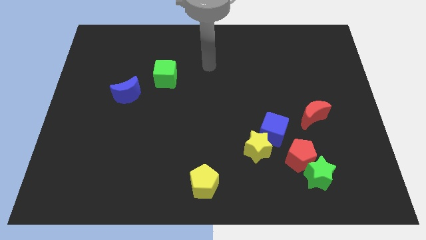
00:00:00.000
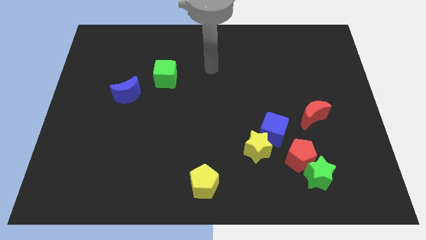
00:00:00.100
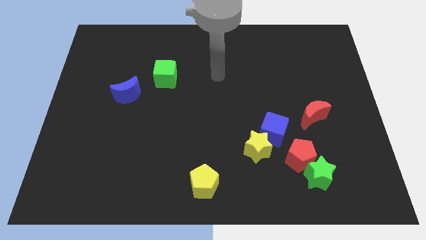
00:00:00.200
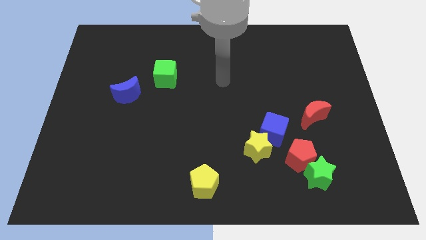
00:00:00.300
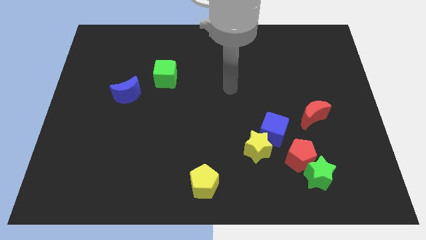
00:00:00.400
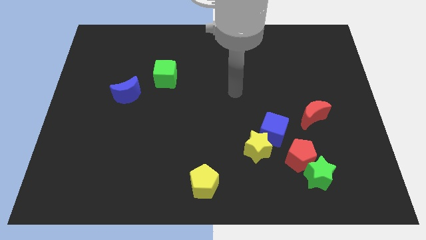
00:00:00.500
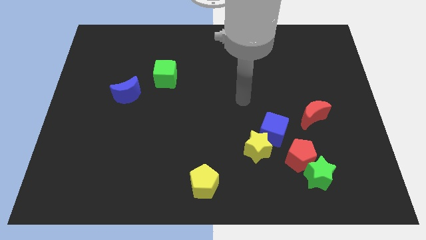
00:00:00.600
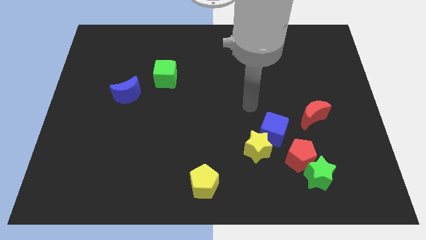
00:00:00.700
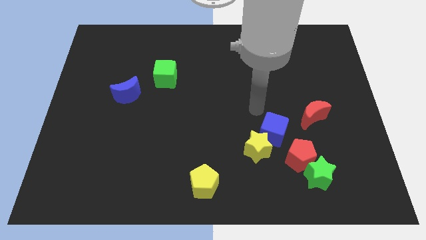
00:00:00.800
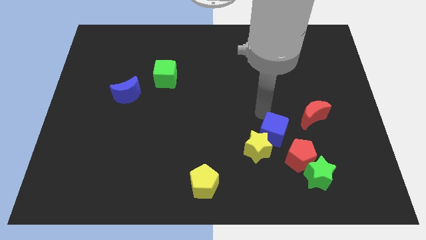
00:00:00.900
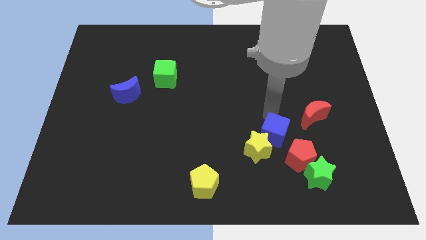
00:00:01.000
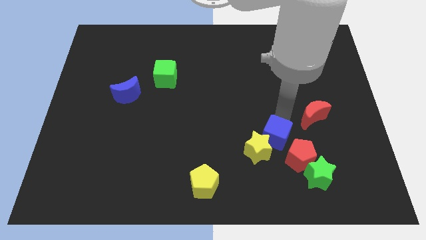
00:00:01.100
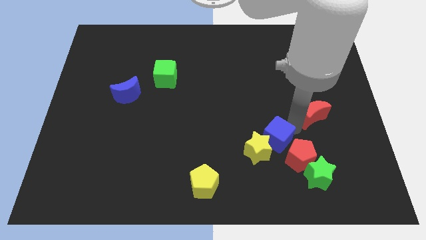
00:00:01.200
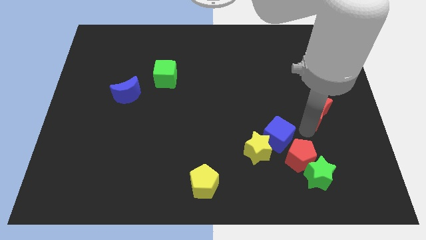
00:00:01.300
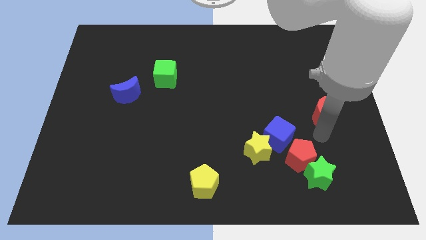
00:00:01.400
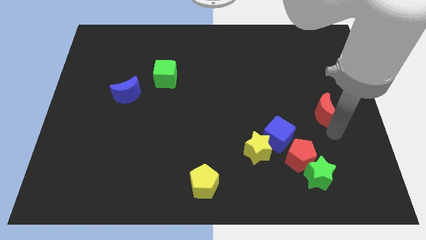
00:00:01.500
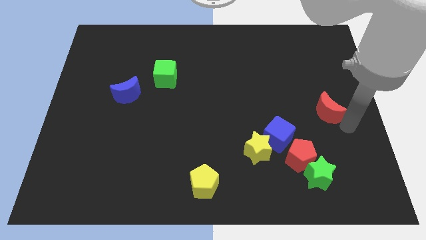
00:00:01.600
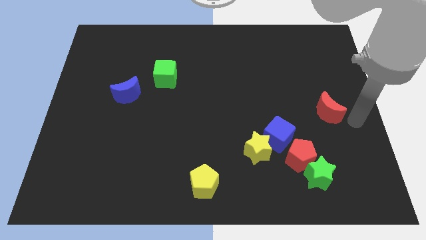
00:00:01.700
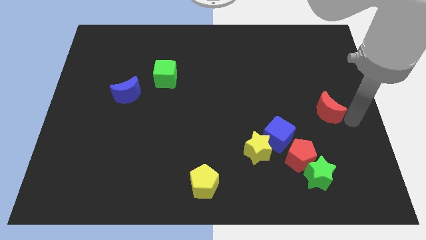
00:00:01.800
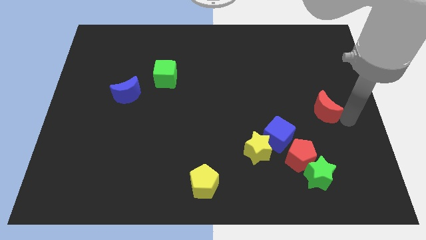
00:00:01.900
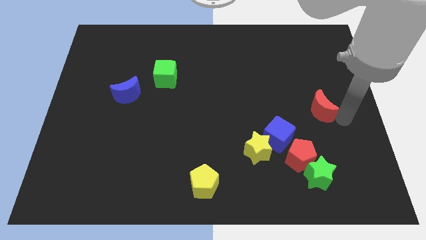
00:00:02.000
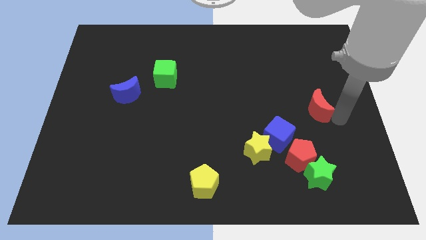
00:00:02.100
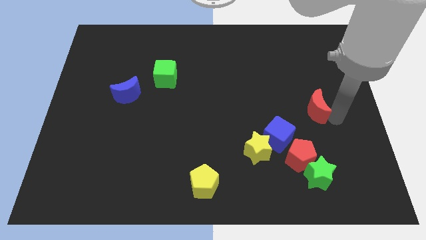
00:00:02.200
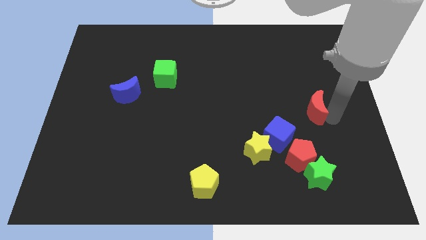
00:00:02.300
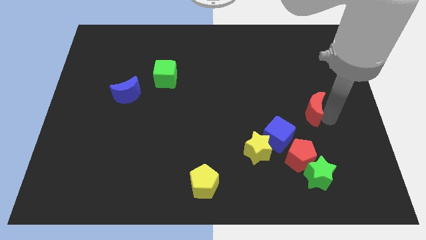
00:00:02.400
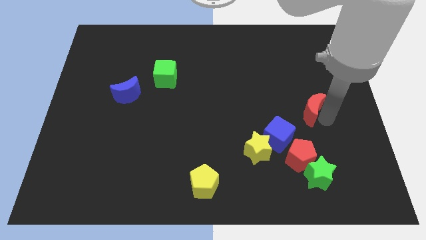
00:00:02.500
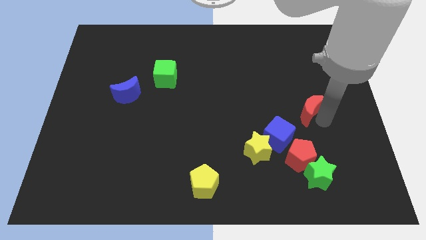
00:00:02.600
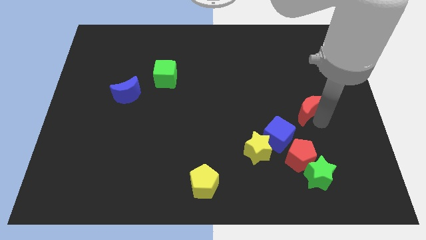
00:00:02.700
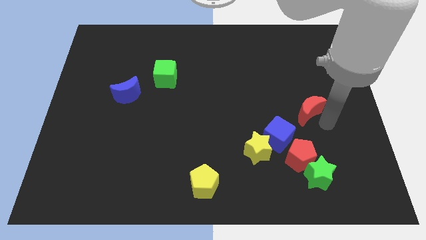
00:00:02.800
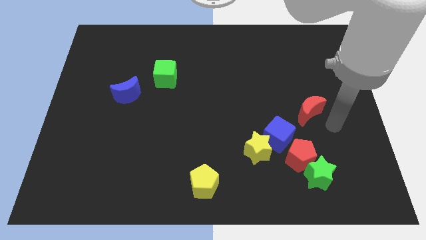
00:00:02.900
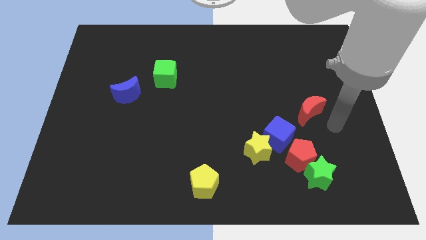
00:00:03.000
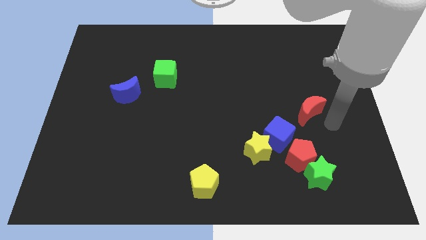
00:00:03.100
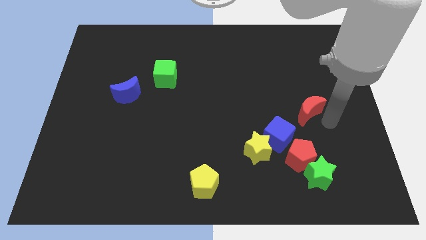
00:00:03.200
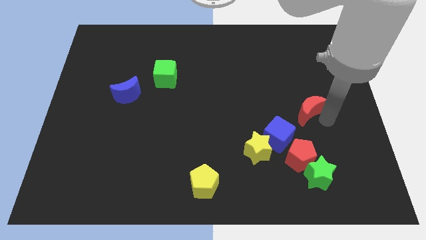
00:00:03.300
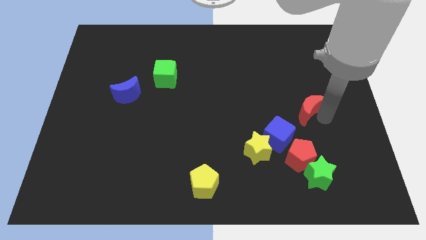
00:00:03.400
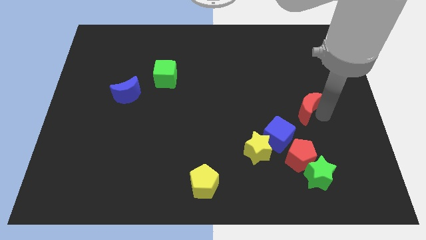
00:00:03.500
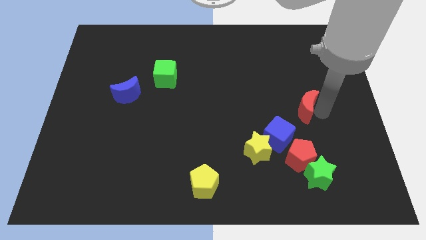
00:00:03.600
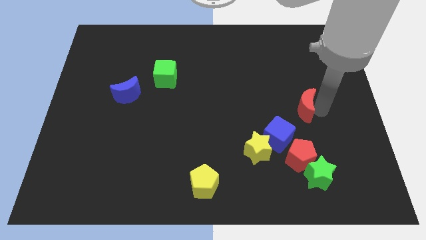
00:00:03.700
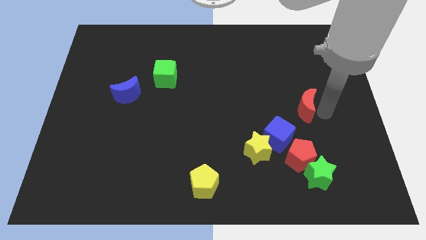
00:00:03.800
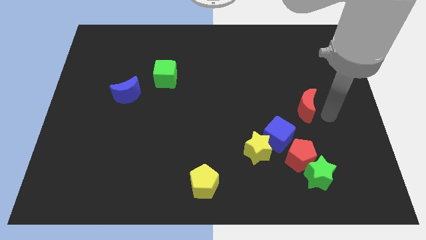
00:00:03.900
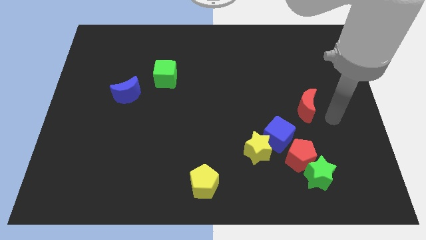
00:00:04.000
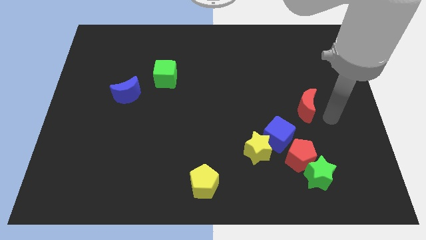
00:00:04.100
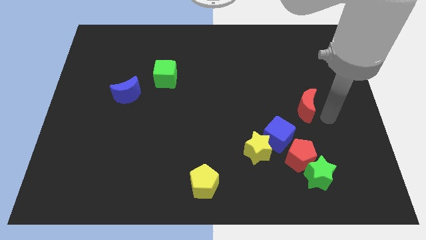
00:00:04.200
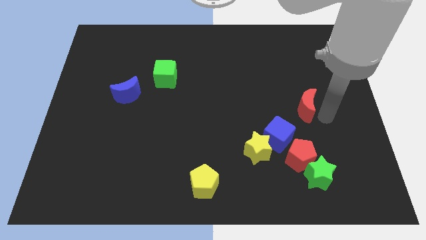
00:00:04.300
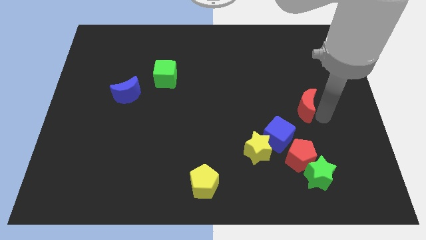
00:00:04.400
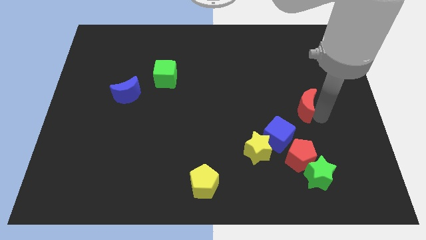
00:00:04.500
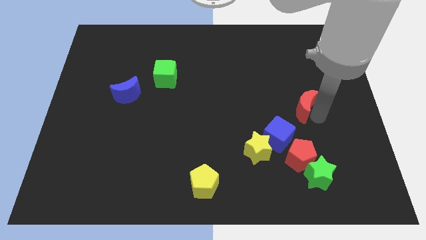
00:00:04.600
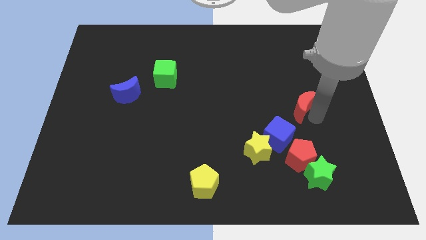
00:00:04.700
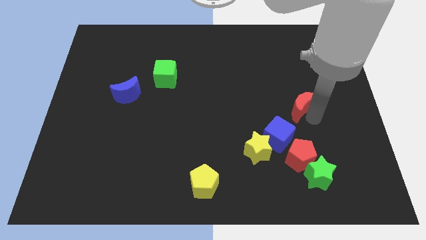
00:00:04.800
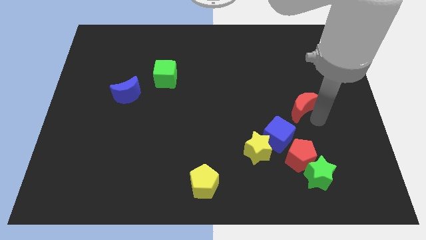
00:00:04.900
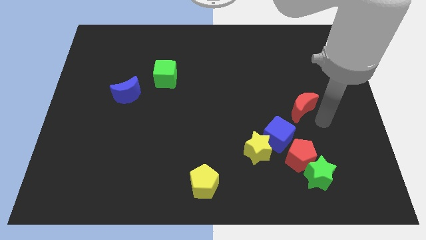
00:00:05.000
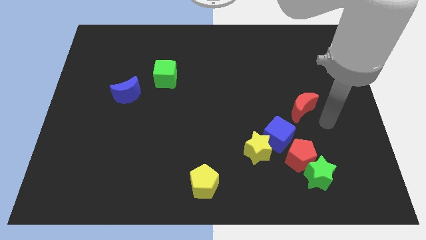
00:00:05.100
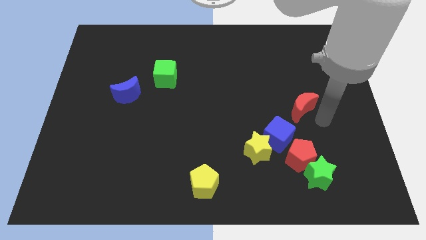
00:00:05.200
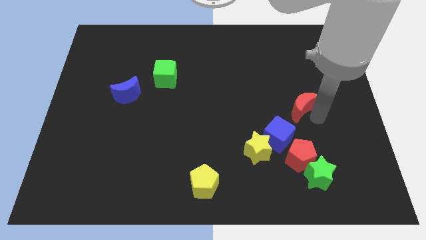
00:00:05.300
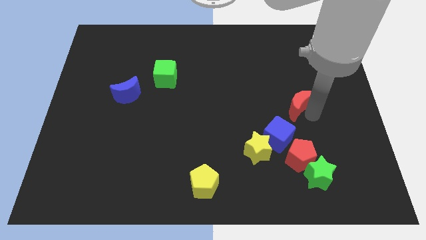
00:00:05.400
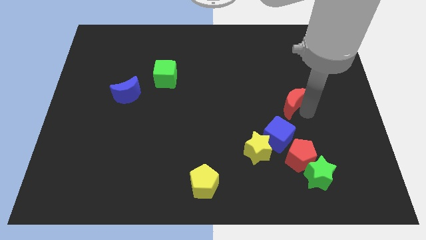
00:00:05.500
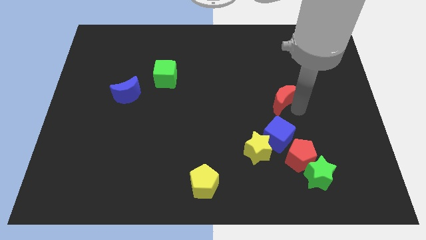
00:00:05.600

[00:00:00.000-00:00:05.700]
push the red moon up and left diagonally somewhat

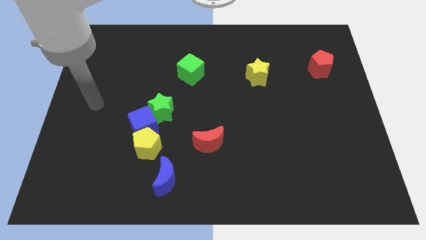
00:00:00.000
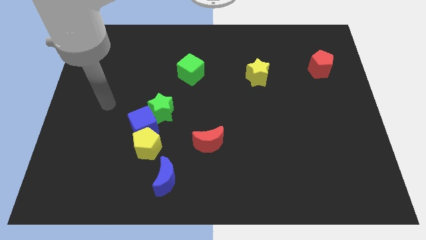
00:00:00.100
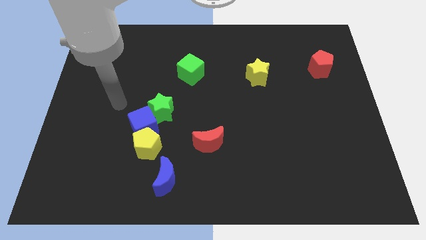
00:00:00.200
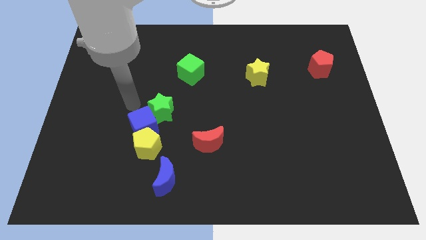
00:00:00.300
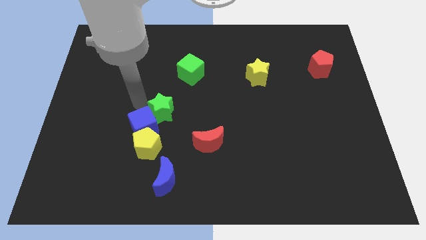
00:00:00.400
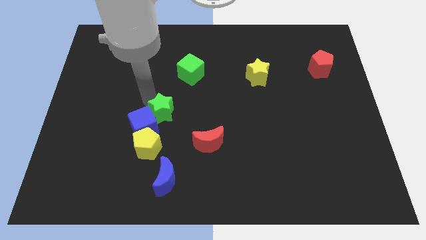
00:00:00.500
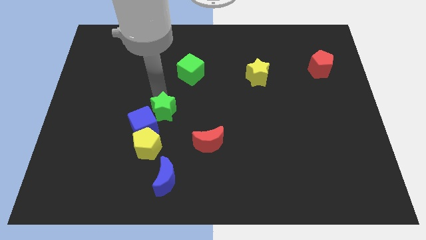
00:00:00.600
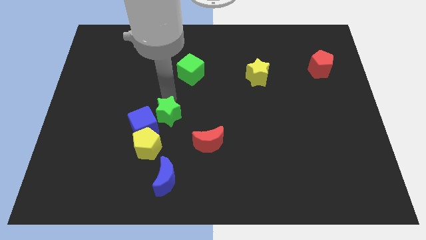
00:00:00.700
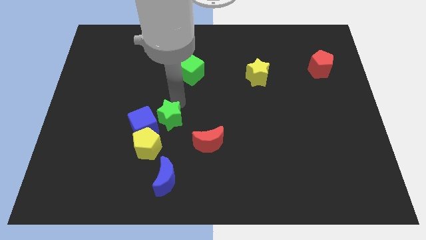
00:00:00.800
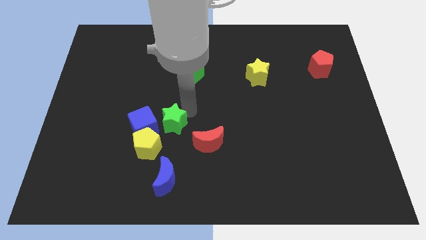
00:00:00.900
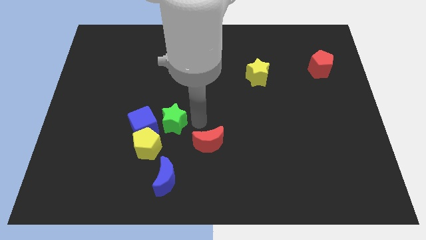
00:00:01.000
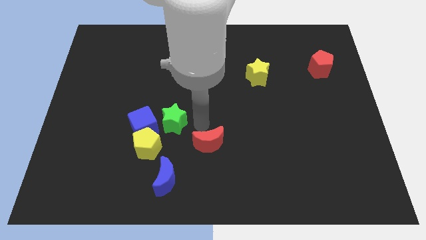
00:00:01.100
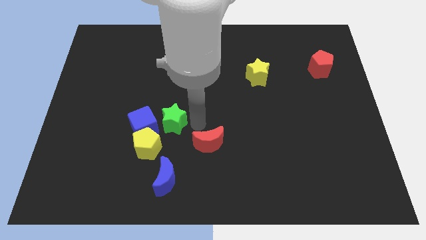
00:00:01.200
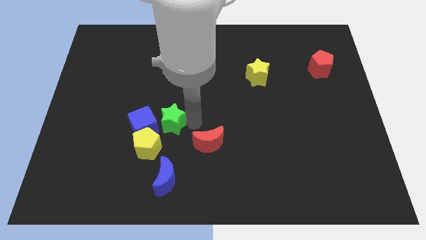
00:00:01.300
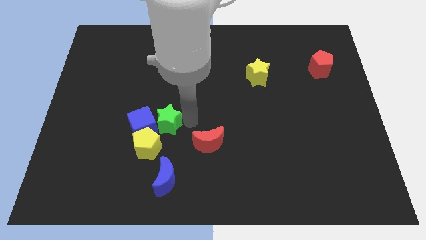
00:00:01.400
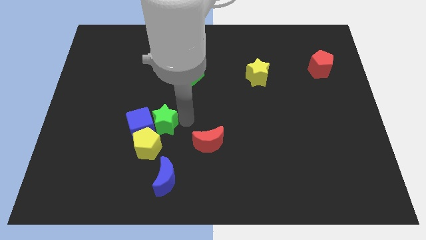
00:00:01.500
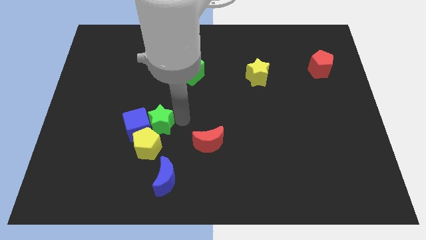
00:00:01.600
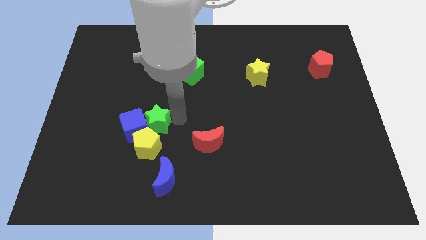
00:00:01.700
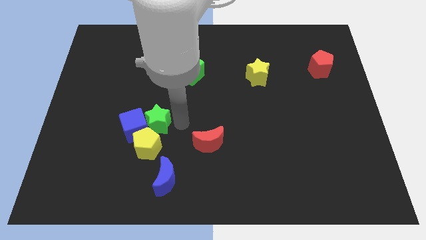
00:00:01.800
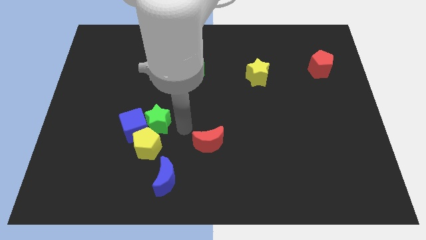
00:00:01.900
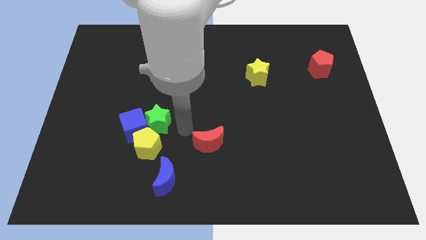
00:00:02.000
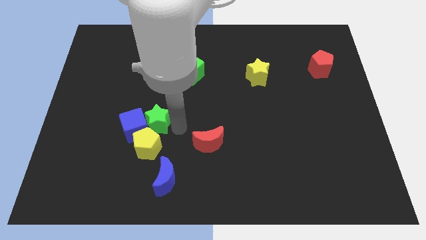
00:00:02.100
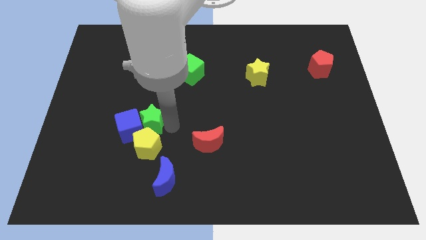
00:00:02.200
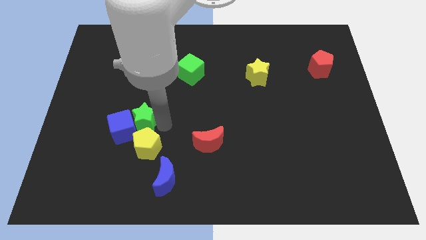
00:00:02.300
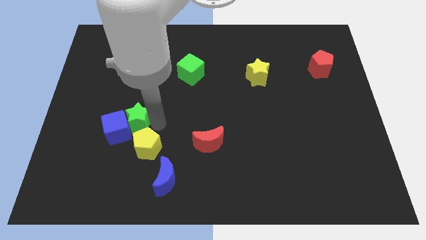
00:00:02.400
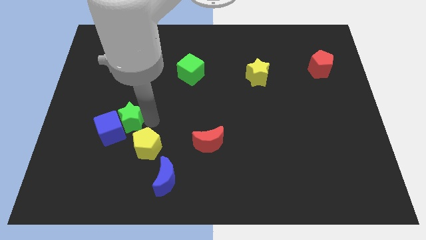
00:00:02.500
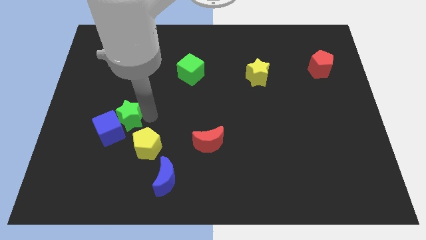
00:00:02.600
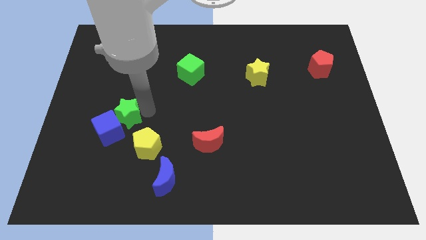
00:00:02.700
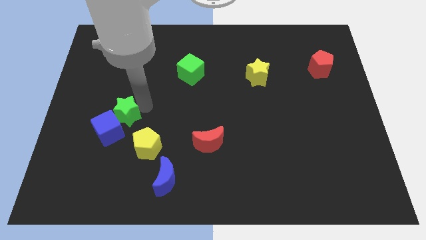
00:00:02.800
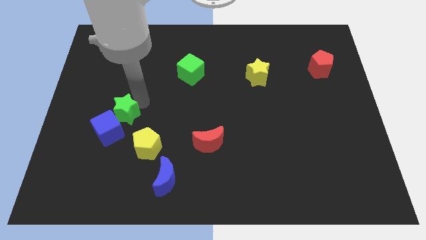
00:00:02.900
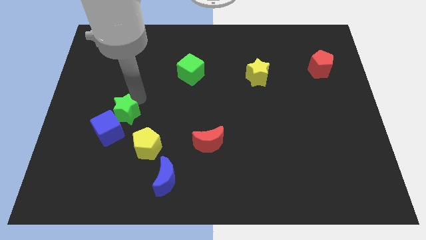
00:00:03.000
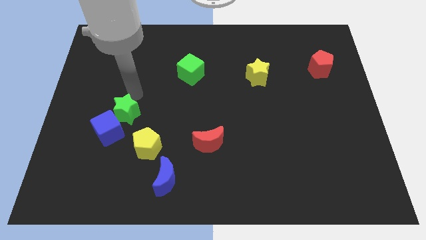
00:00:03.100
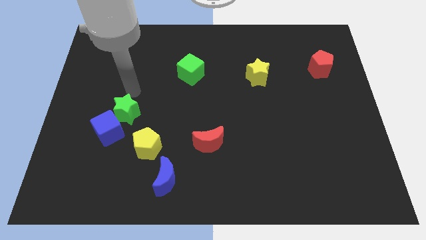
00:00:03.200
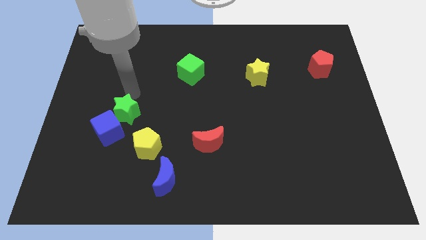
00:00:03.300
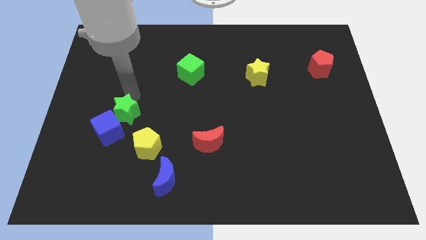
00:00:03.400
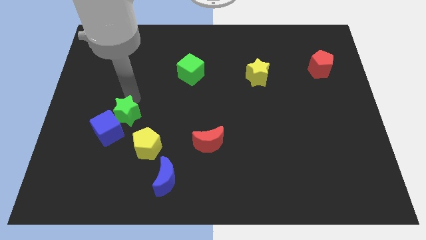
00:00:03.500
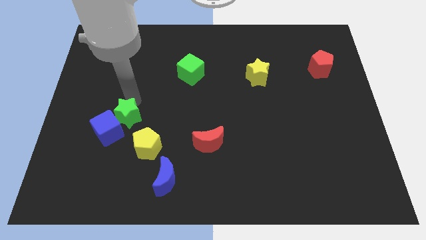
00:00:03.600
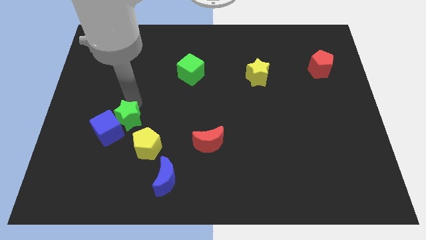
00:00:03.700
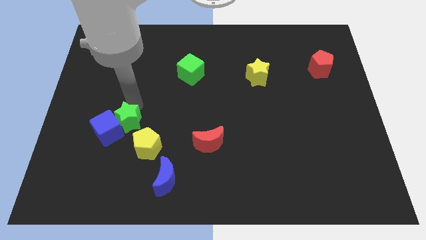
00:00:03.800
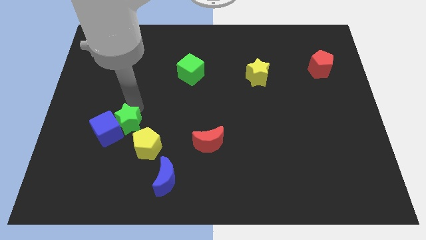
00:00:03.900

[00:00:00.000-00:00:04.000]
move the green star slightly down and left diagonally
